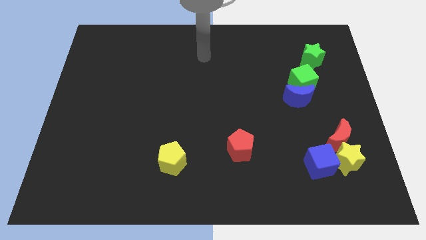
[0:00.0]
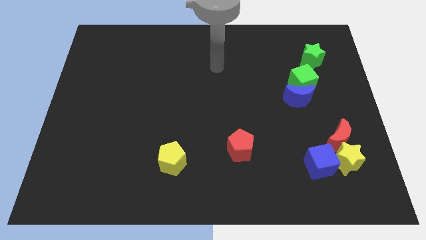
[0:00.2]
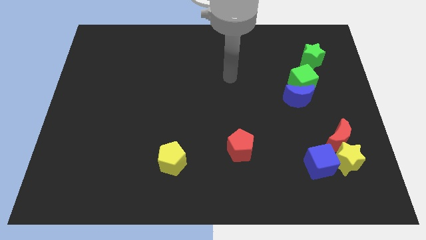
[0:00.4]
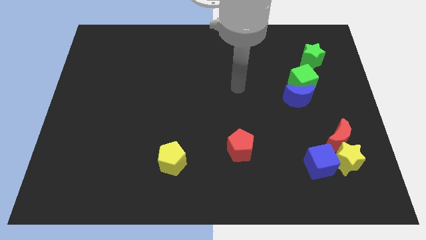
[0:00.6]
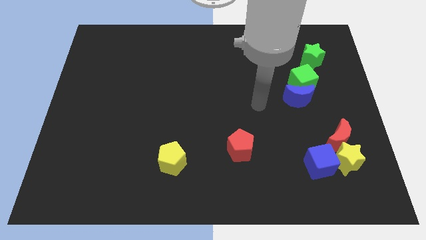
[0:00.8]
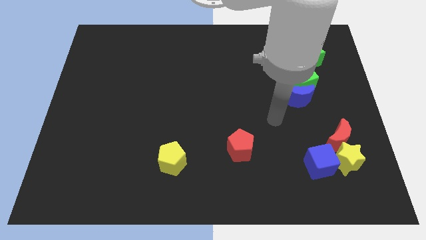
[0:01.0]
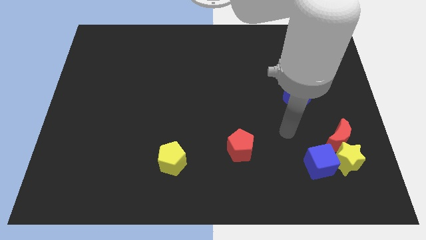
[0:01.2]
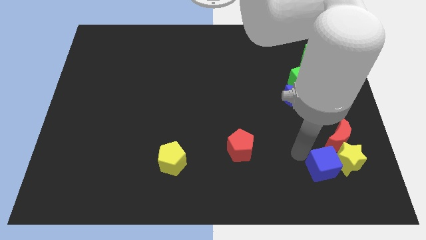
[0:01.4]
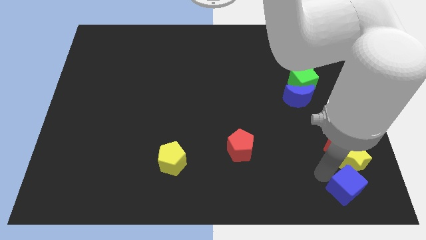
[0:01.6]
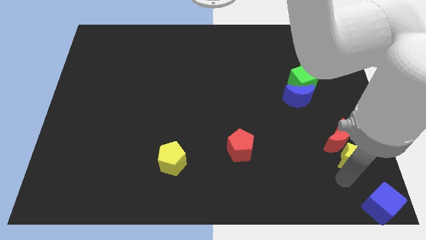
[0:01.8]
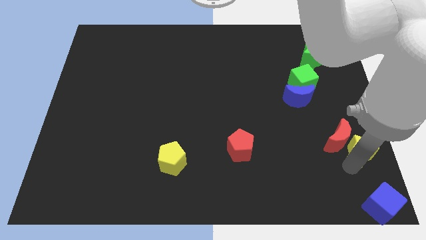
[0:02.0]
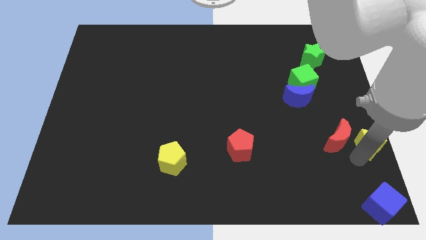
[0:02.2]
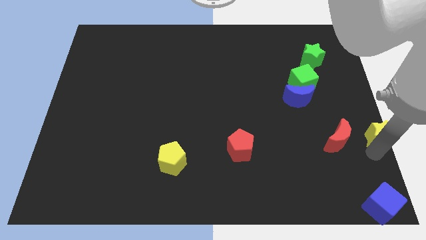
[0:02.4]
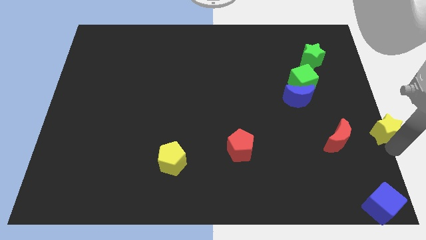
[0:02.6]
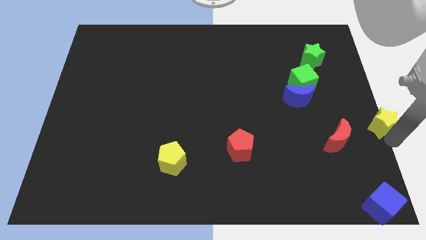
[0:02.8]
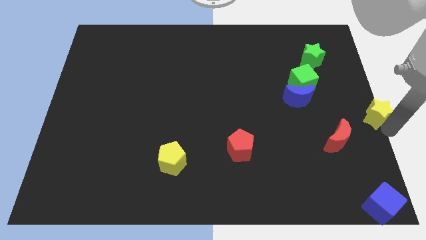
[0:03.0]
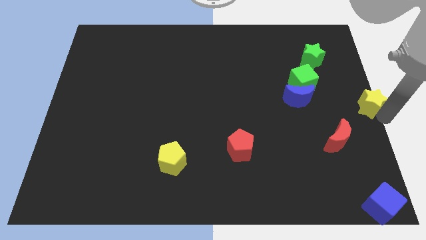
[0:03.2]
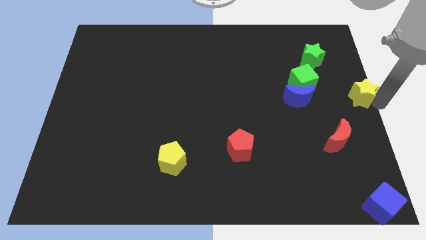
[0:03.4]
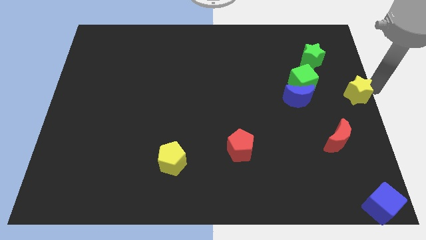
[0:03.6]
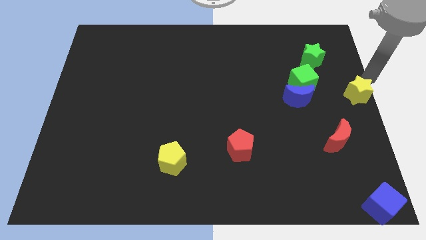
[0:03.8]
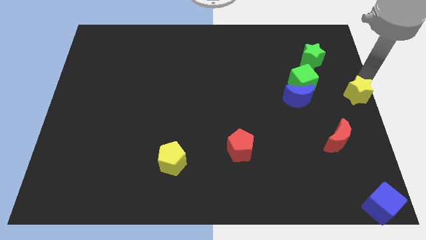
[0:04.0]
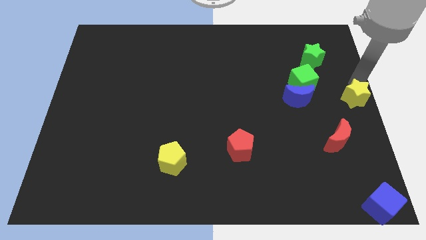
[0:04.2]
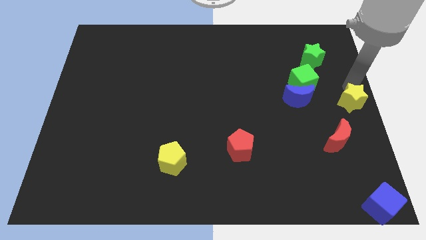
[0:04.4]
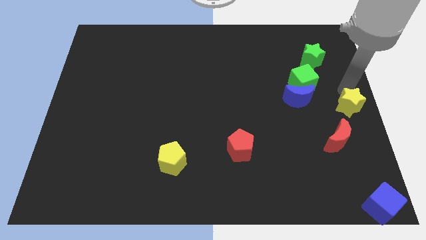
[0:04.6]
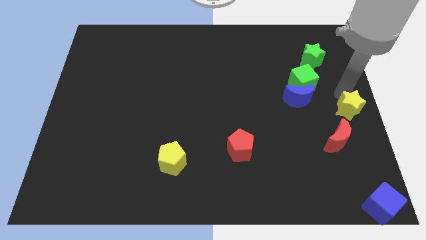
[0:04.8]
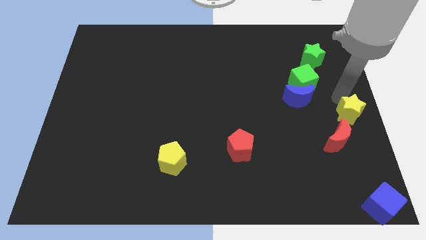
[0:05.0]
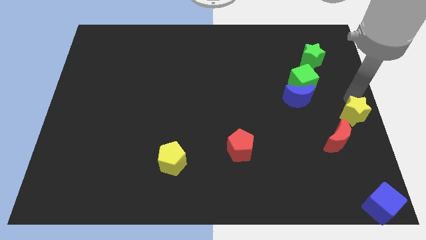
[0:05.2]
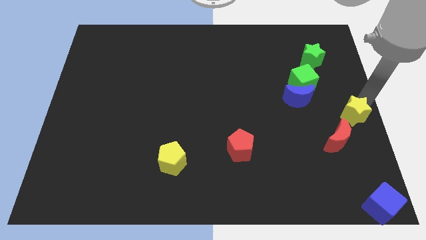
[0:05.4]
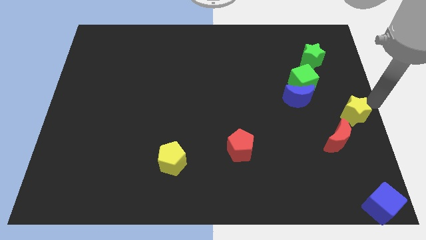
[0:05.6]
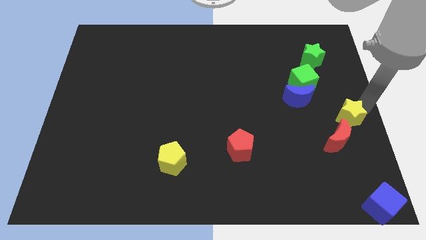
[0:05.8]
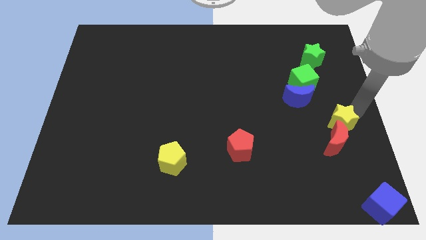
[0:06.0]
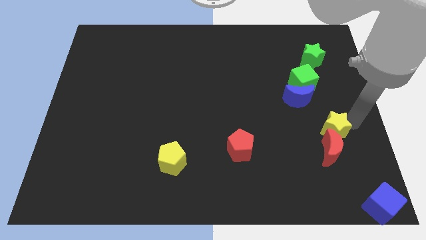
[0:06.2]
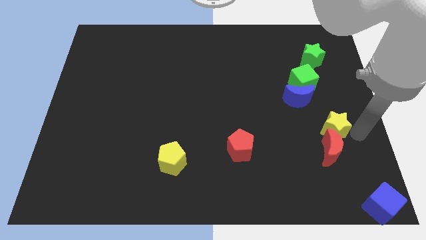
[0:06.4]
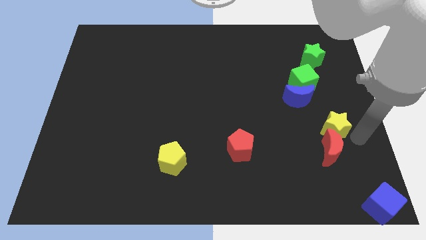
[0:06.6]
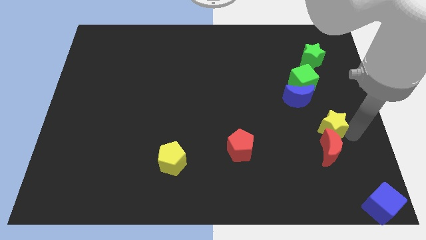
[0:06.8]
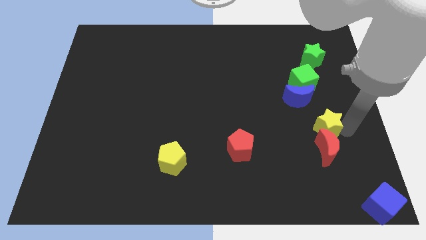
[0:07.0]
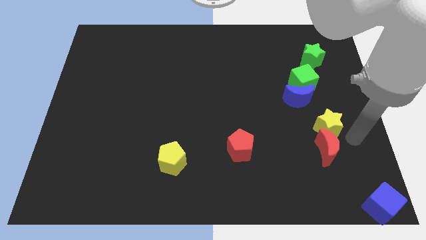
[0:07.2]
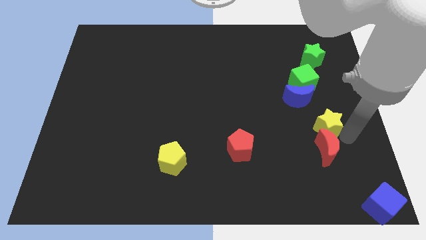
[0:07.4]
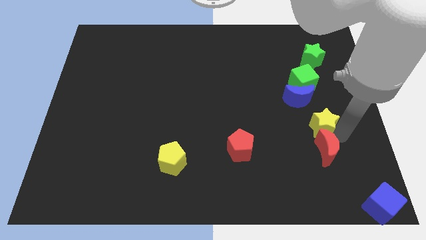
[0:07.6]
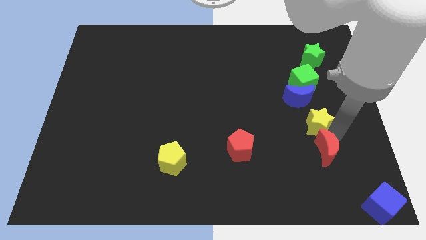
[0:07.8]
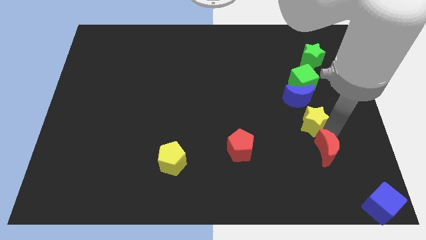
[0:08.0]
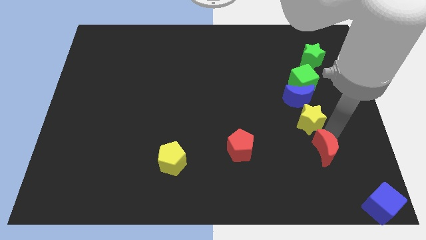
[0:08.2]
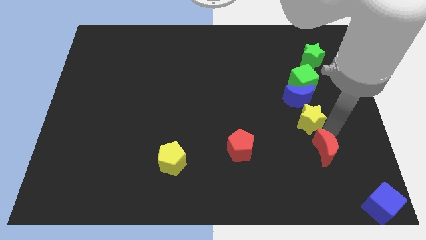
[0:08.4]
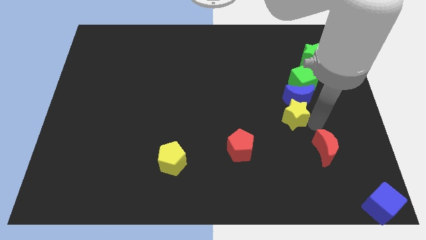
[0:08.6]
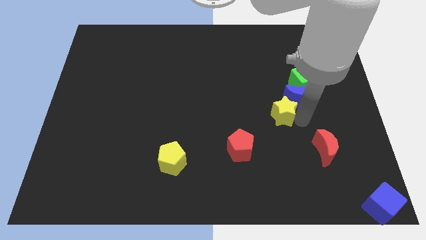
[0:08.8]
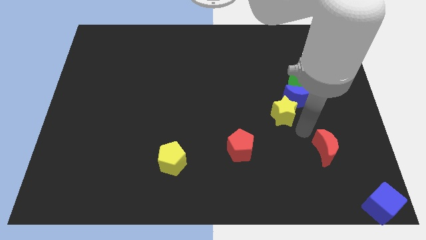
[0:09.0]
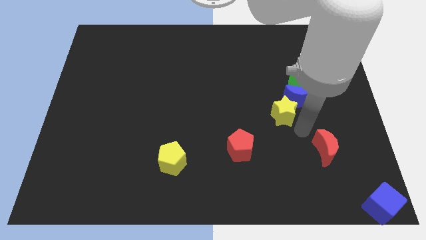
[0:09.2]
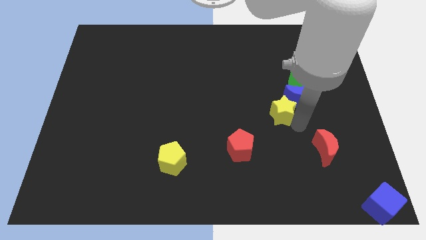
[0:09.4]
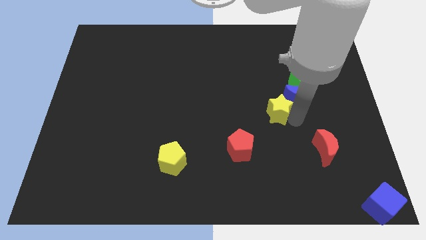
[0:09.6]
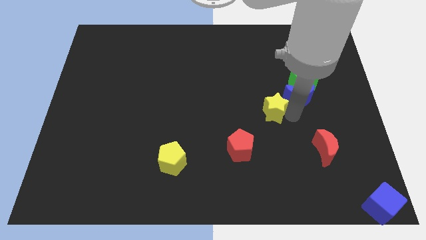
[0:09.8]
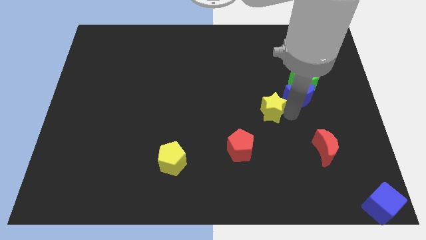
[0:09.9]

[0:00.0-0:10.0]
slide the yellow star up and then left

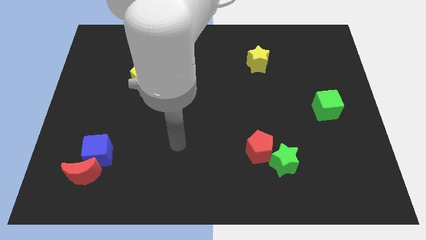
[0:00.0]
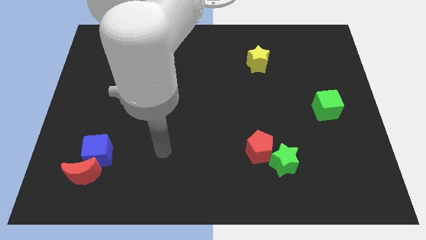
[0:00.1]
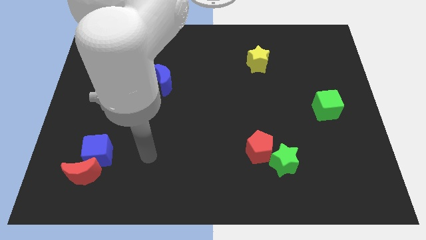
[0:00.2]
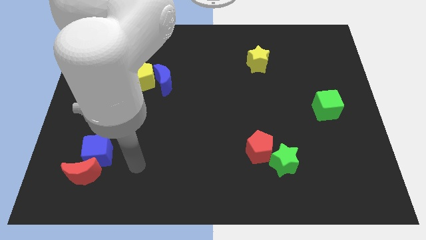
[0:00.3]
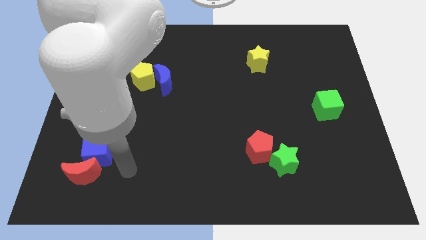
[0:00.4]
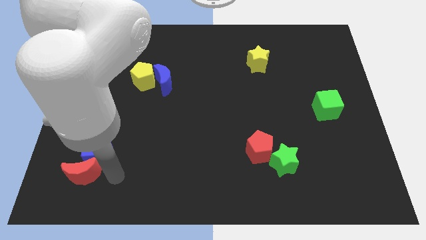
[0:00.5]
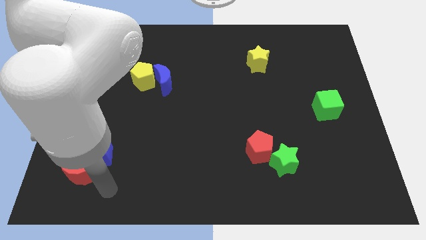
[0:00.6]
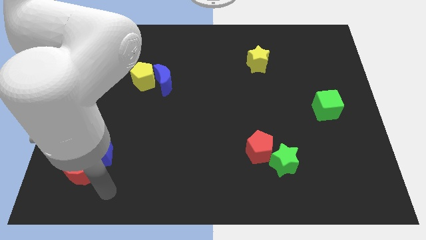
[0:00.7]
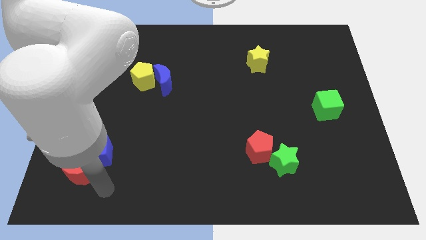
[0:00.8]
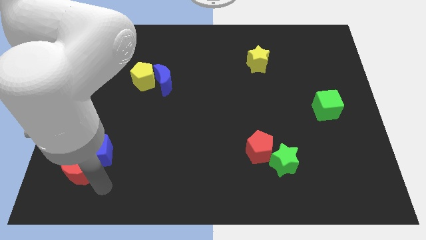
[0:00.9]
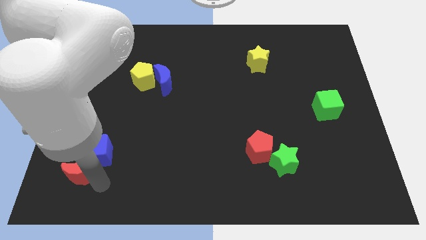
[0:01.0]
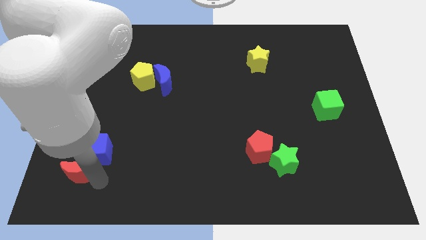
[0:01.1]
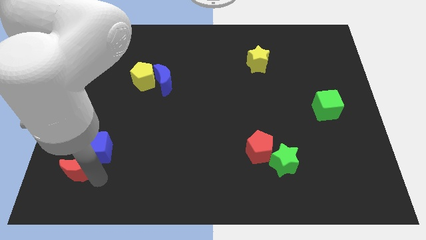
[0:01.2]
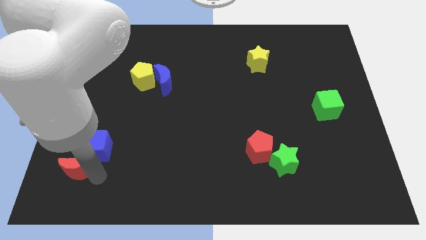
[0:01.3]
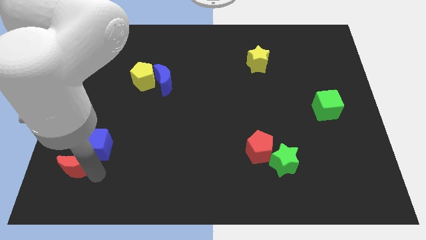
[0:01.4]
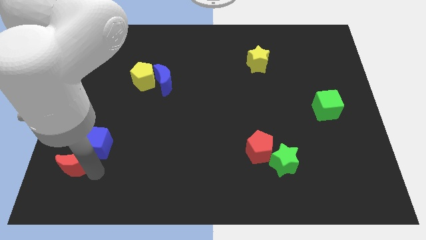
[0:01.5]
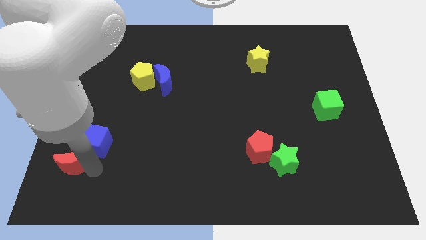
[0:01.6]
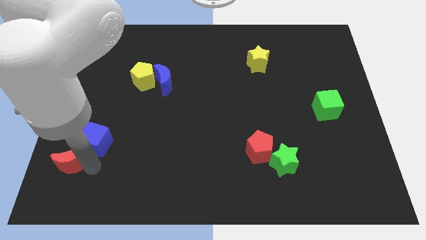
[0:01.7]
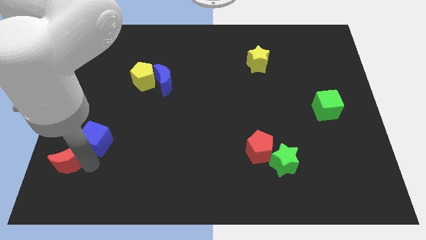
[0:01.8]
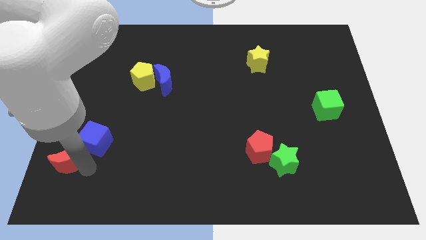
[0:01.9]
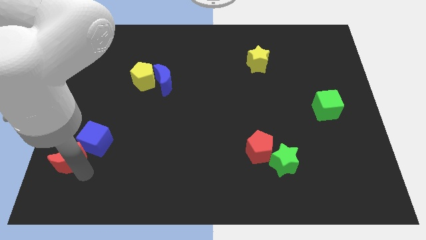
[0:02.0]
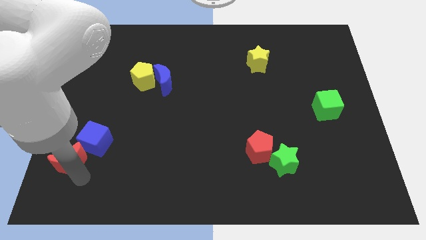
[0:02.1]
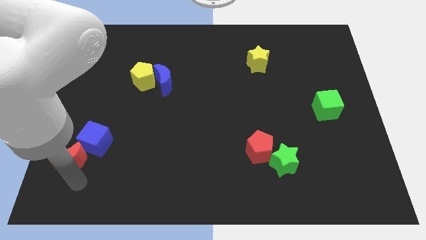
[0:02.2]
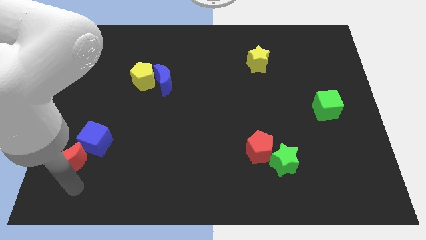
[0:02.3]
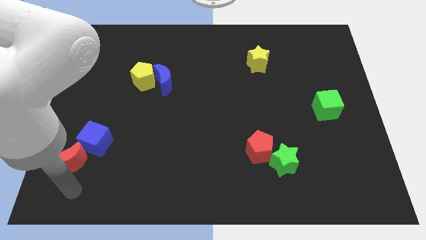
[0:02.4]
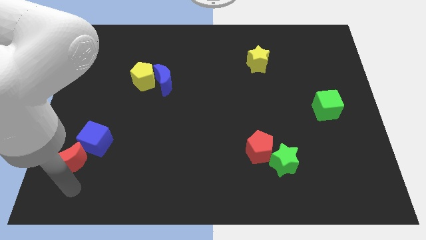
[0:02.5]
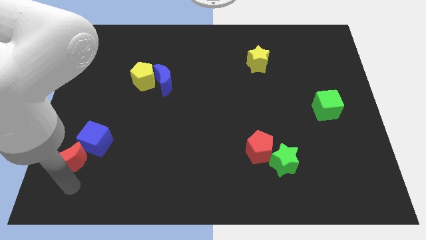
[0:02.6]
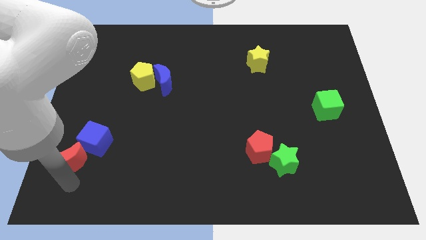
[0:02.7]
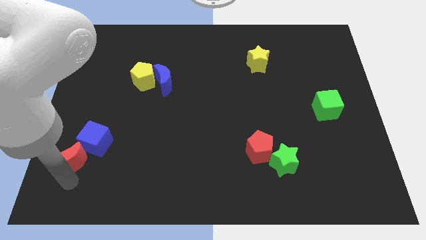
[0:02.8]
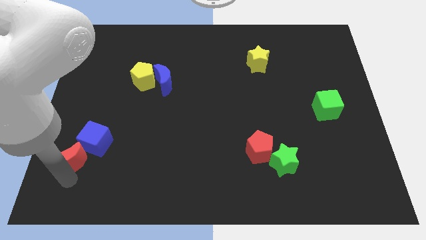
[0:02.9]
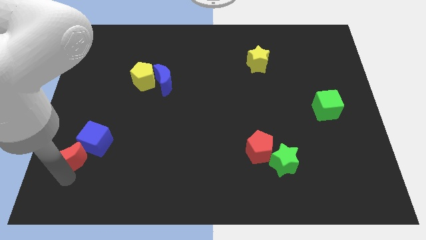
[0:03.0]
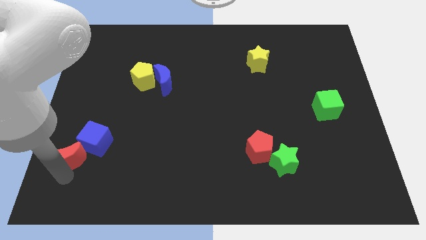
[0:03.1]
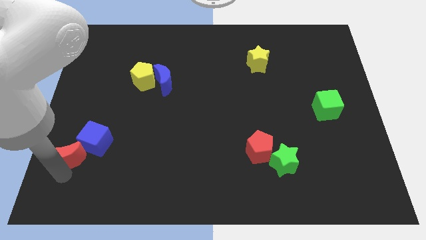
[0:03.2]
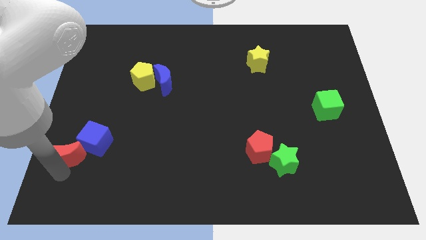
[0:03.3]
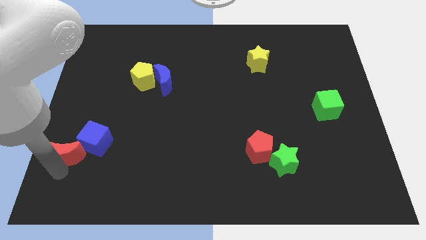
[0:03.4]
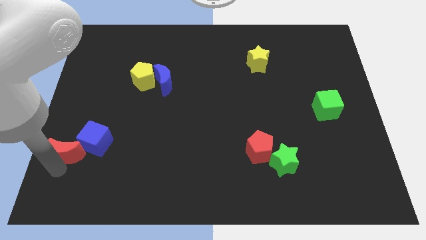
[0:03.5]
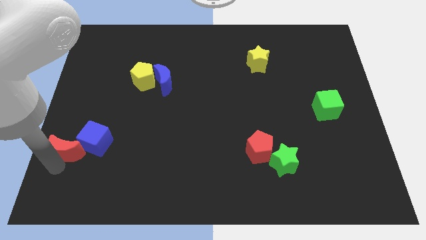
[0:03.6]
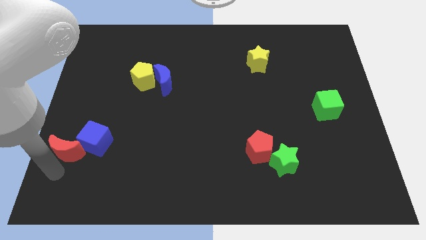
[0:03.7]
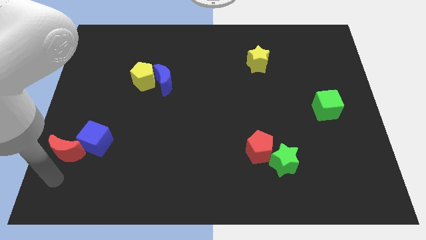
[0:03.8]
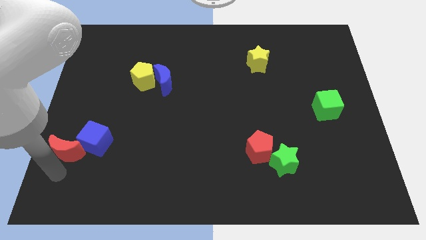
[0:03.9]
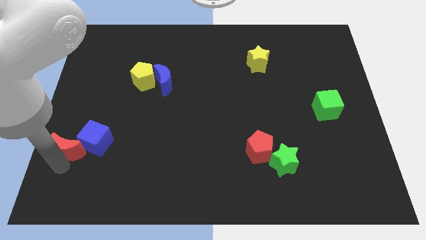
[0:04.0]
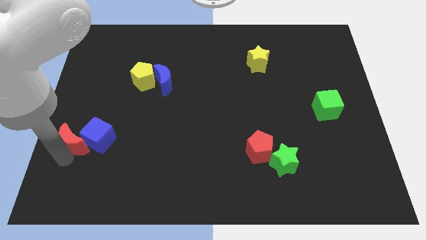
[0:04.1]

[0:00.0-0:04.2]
slightly slide the red moon up
